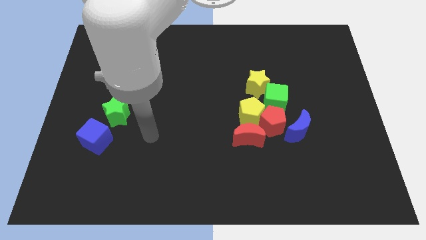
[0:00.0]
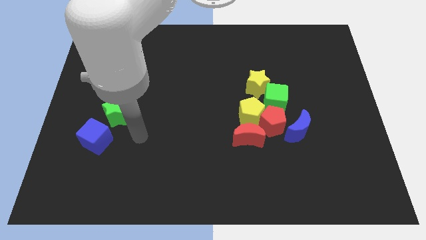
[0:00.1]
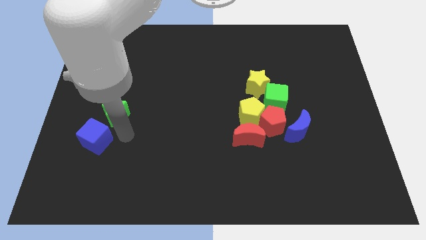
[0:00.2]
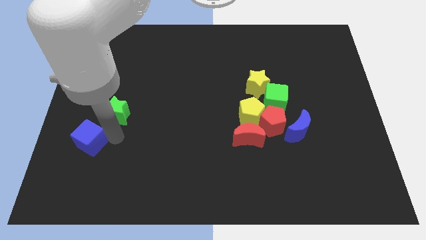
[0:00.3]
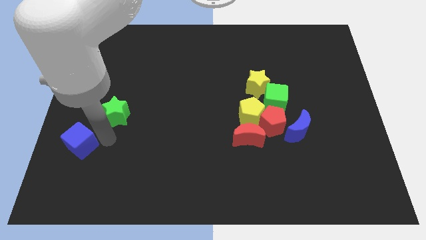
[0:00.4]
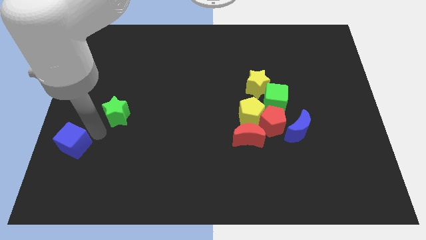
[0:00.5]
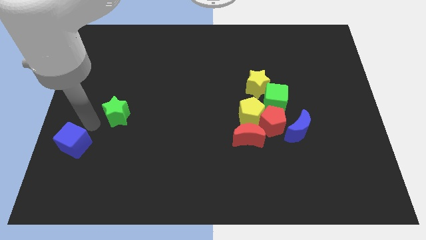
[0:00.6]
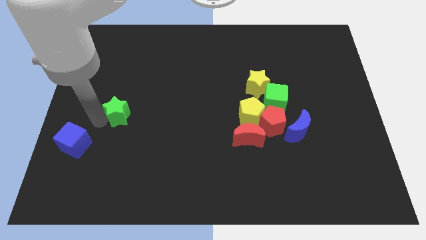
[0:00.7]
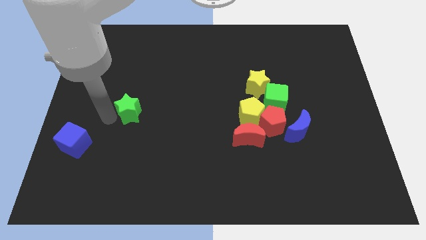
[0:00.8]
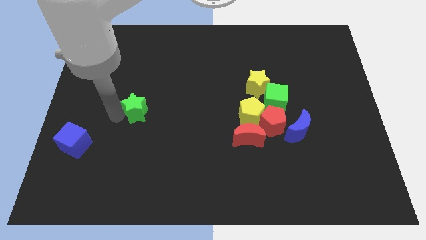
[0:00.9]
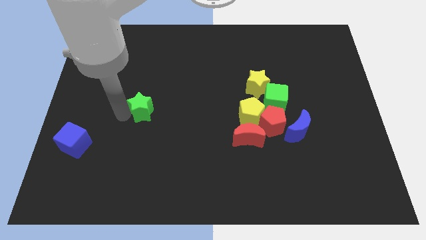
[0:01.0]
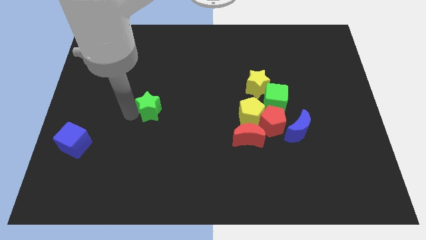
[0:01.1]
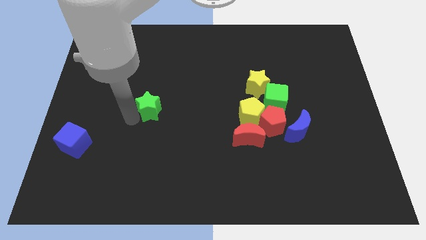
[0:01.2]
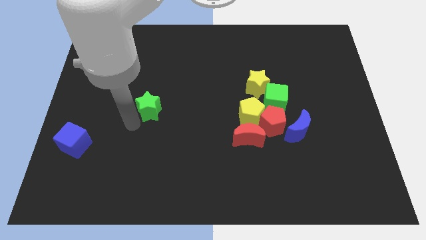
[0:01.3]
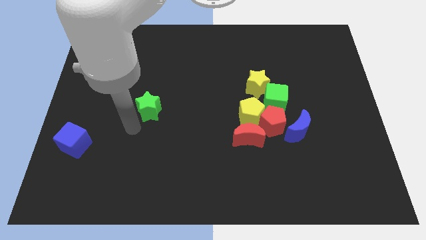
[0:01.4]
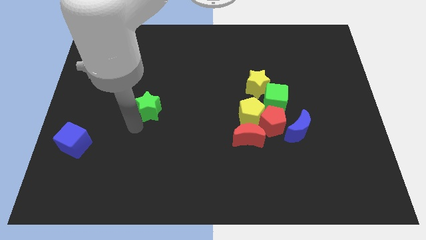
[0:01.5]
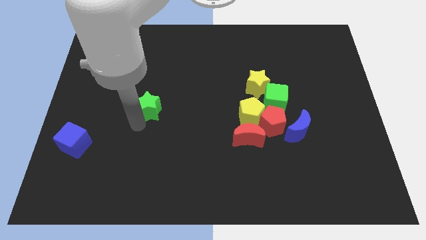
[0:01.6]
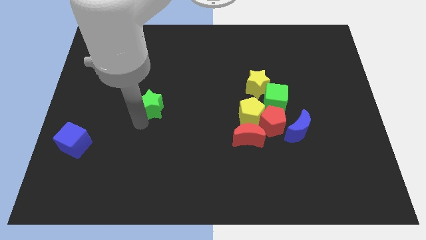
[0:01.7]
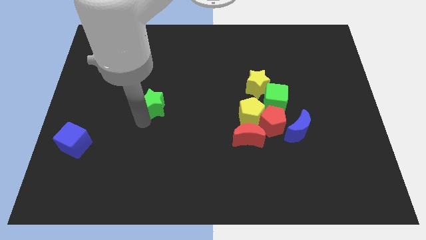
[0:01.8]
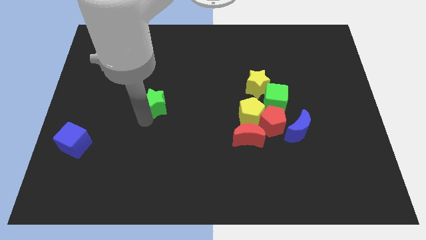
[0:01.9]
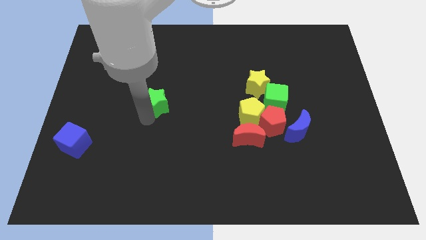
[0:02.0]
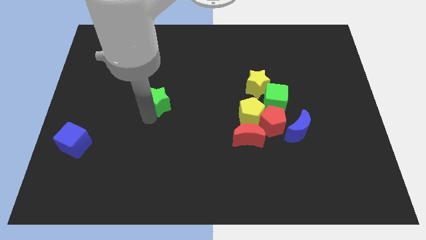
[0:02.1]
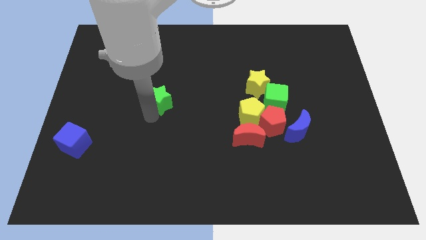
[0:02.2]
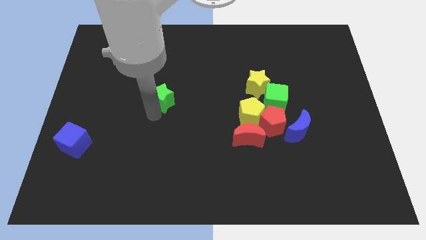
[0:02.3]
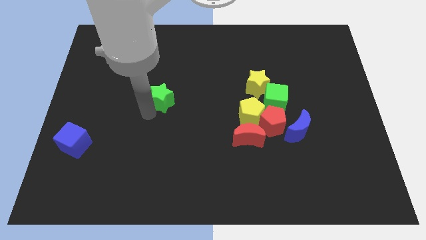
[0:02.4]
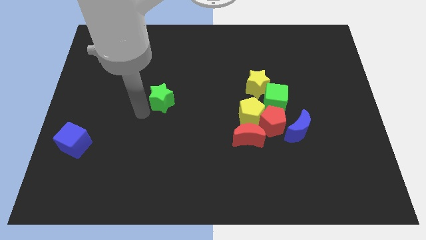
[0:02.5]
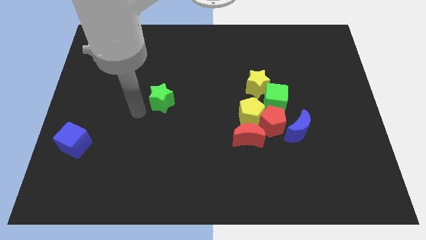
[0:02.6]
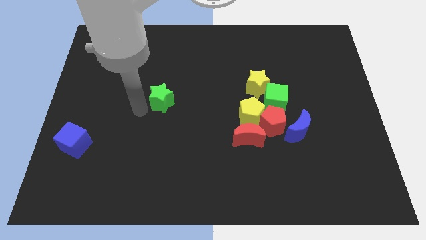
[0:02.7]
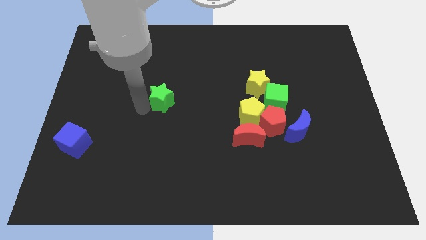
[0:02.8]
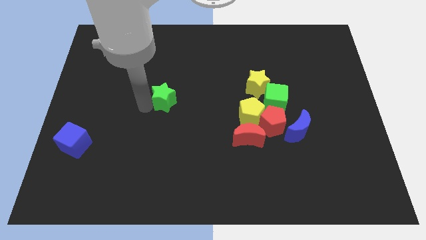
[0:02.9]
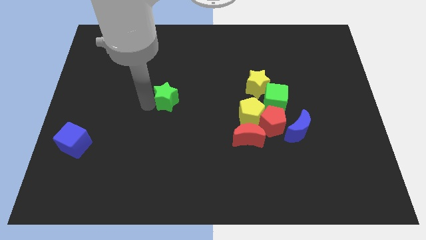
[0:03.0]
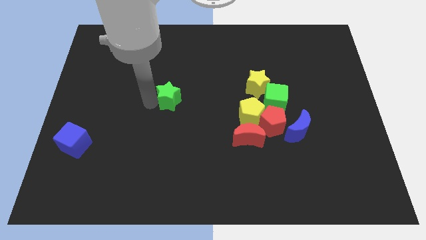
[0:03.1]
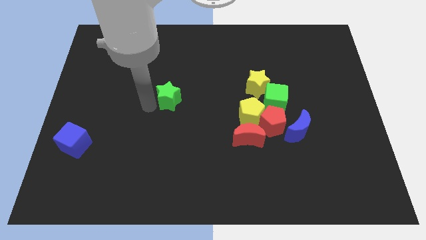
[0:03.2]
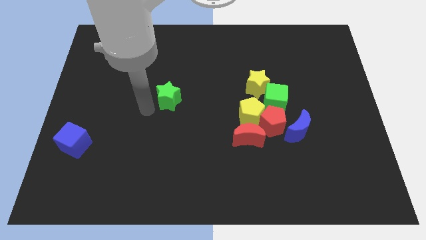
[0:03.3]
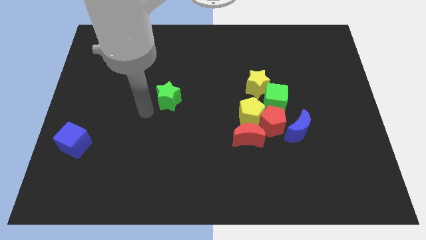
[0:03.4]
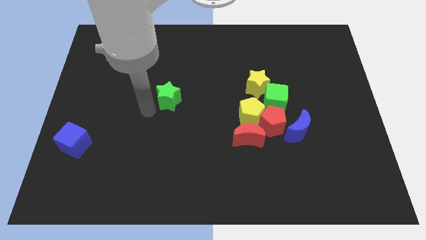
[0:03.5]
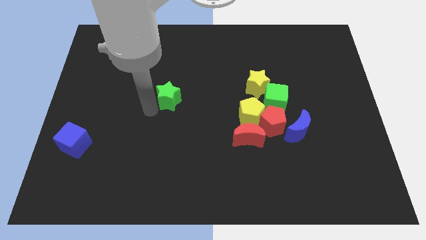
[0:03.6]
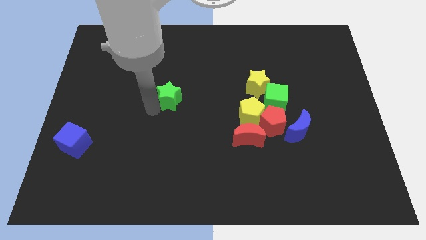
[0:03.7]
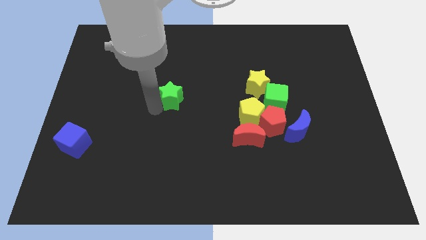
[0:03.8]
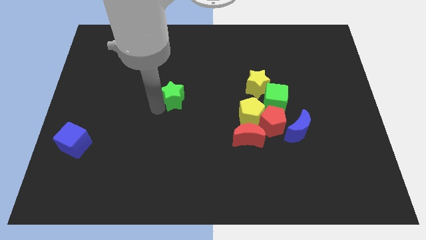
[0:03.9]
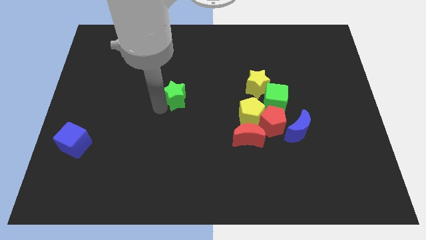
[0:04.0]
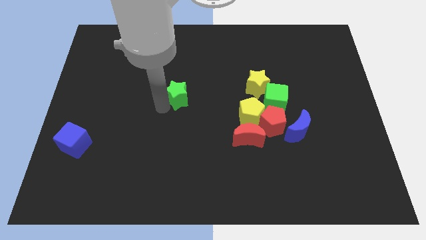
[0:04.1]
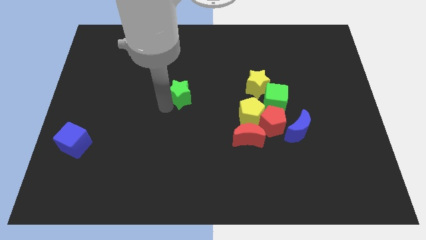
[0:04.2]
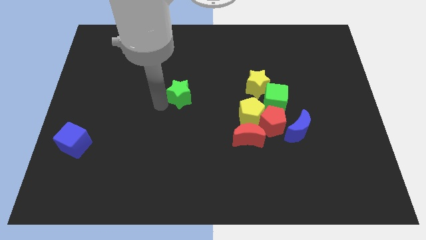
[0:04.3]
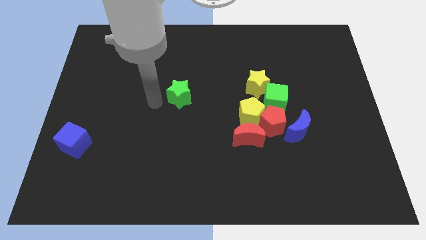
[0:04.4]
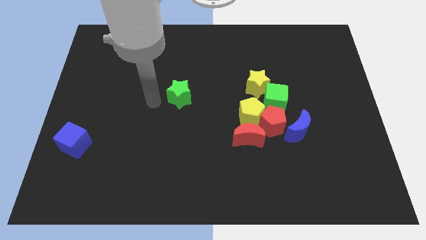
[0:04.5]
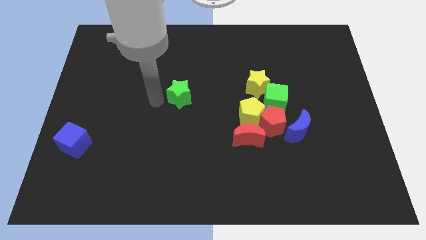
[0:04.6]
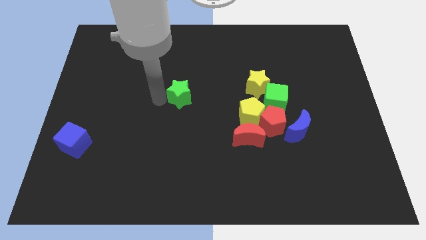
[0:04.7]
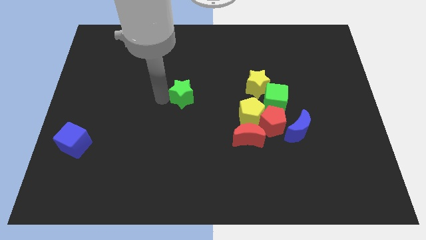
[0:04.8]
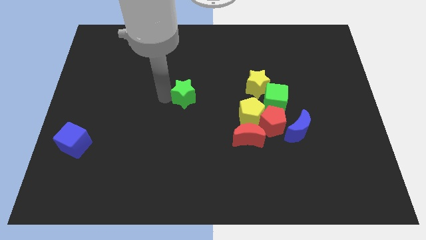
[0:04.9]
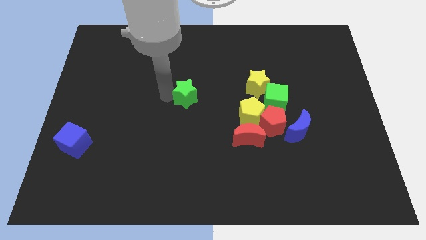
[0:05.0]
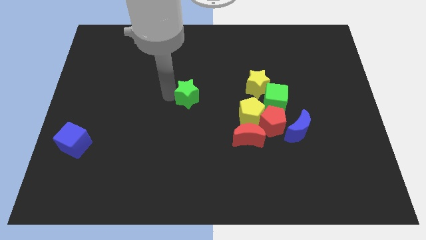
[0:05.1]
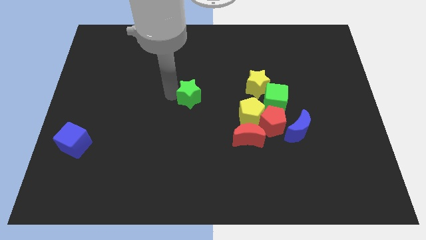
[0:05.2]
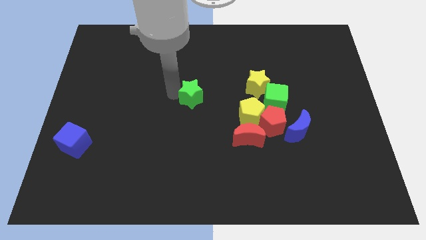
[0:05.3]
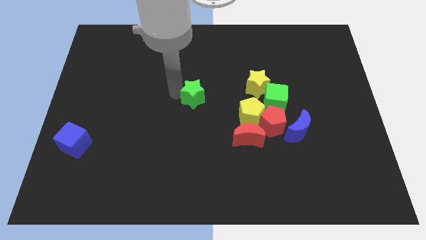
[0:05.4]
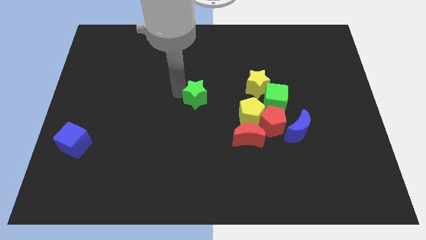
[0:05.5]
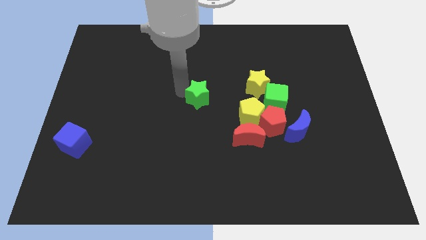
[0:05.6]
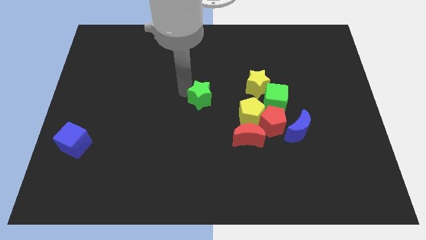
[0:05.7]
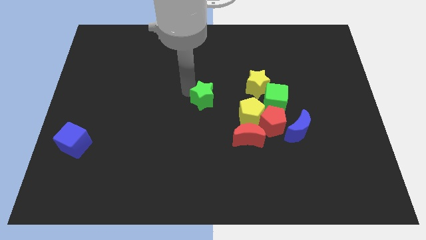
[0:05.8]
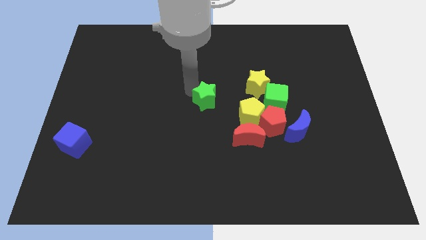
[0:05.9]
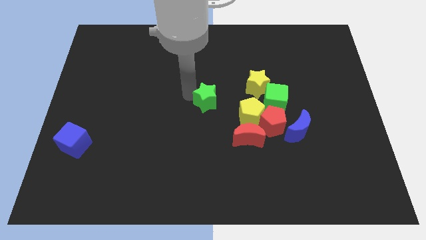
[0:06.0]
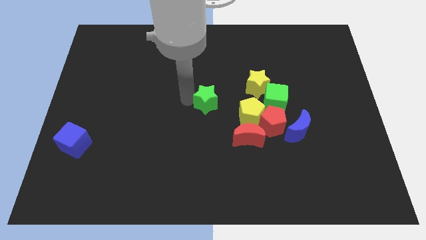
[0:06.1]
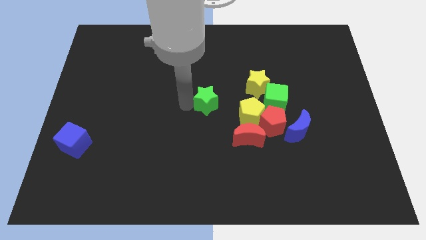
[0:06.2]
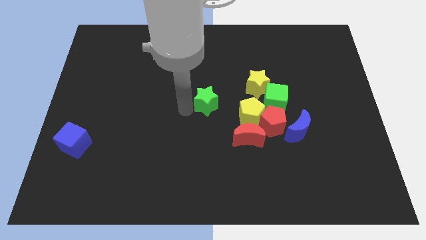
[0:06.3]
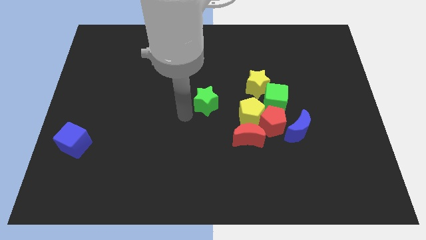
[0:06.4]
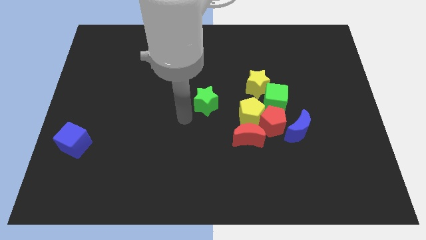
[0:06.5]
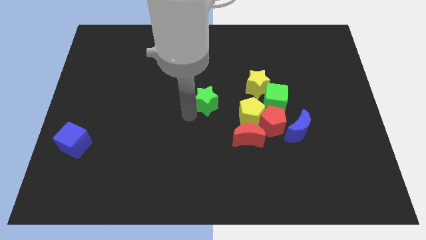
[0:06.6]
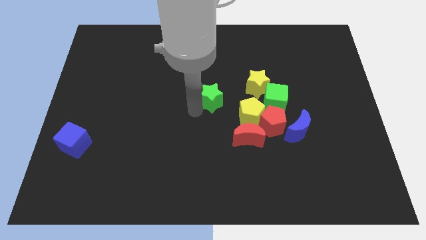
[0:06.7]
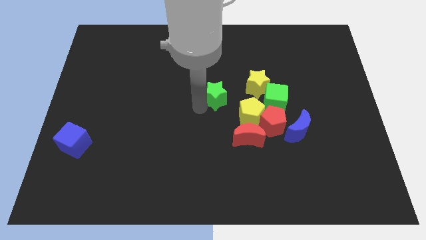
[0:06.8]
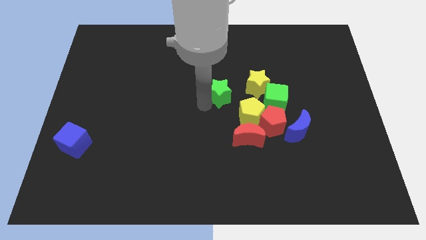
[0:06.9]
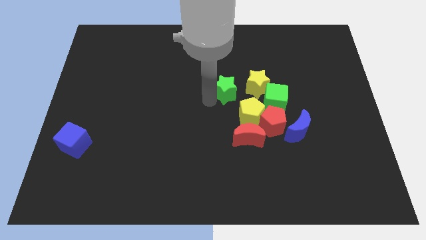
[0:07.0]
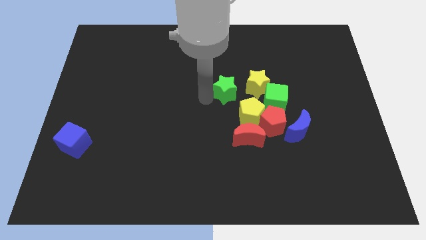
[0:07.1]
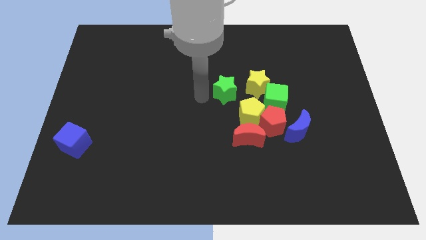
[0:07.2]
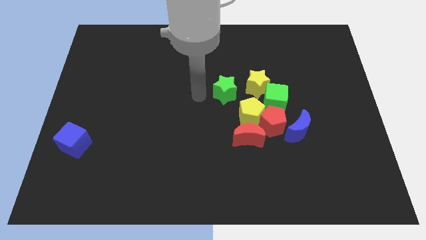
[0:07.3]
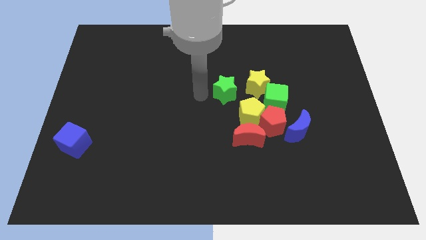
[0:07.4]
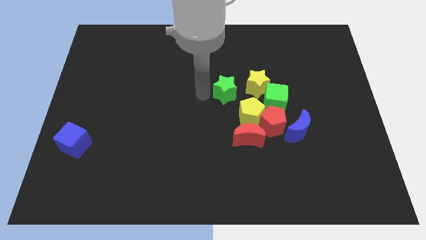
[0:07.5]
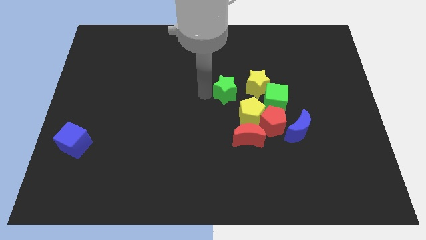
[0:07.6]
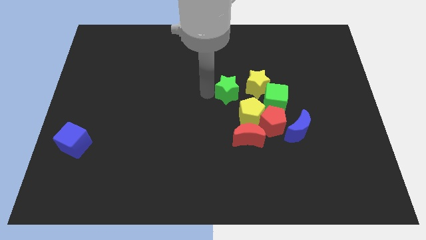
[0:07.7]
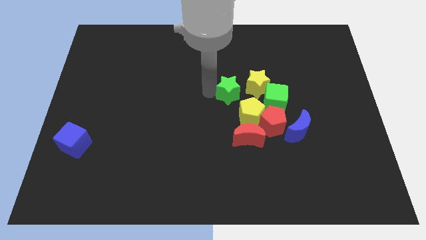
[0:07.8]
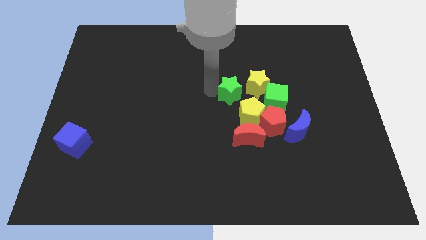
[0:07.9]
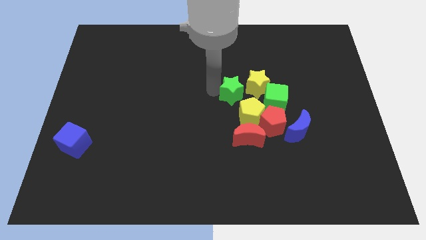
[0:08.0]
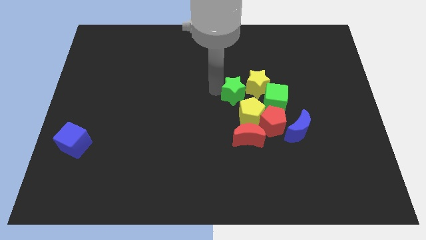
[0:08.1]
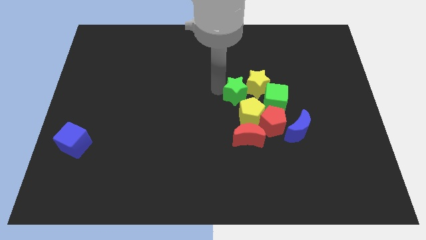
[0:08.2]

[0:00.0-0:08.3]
push the green star next to the yellow star
